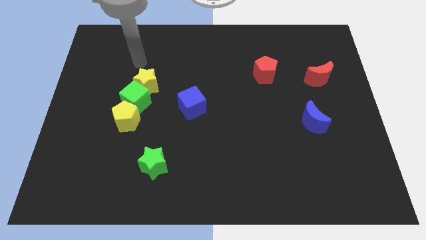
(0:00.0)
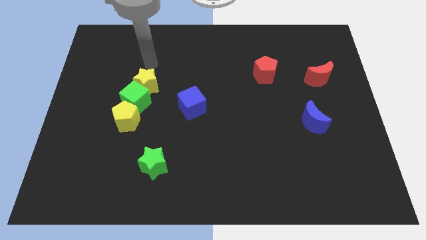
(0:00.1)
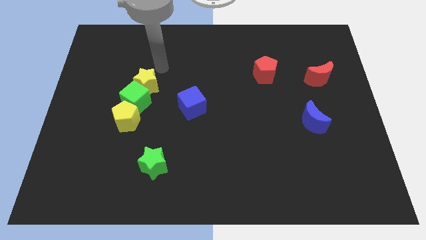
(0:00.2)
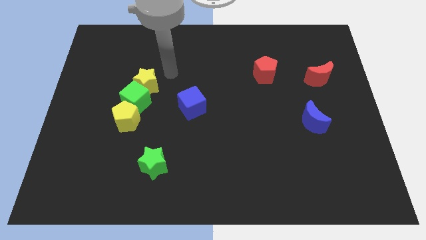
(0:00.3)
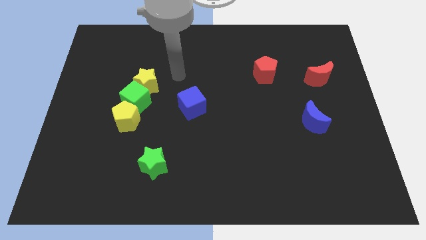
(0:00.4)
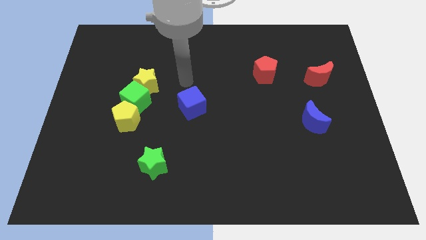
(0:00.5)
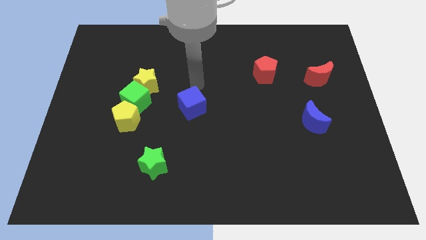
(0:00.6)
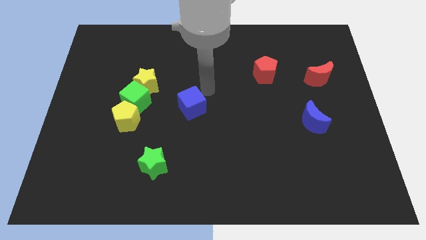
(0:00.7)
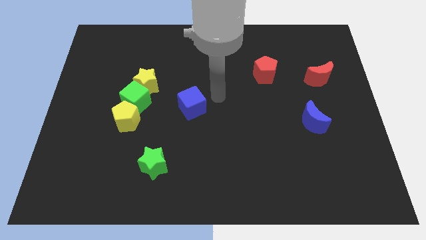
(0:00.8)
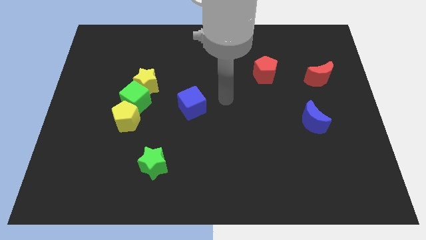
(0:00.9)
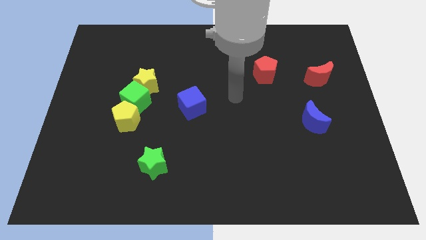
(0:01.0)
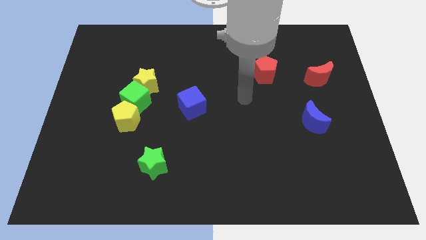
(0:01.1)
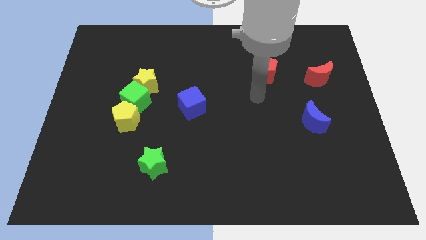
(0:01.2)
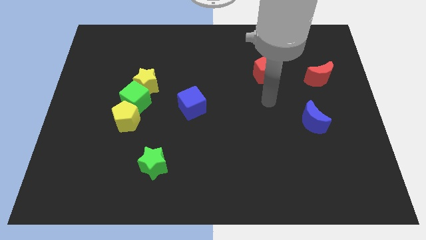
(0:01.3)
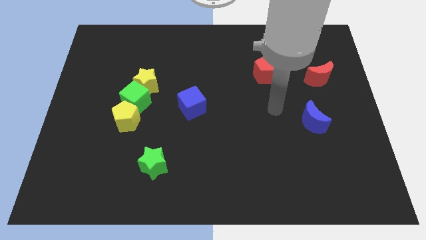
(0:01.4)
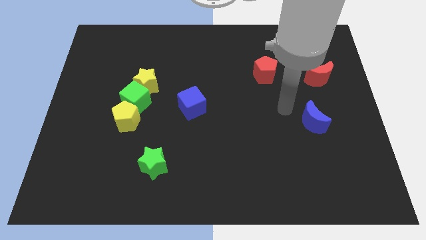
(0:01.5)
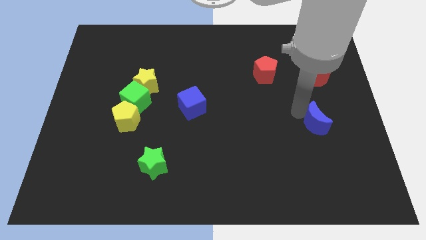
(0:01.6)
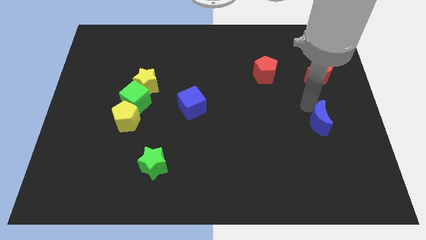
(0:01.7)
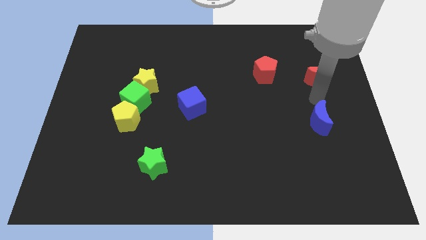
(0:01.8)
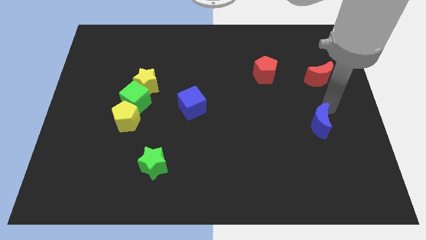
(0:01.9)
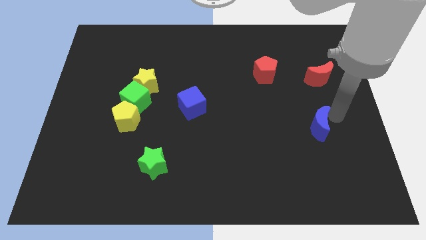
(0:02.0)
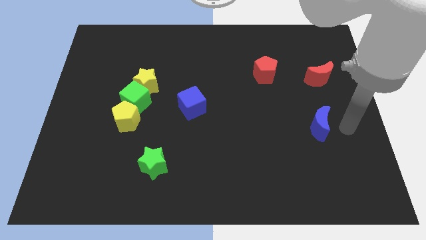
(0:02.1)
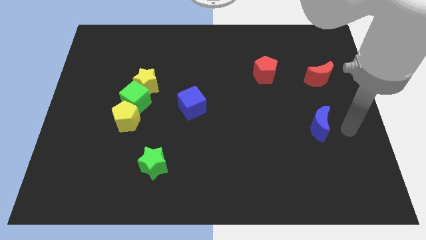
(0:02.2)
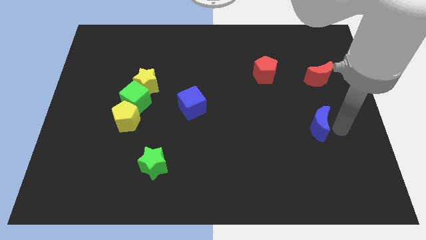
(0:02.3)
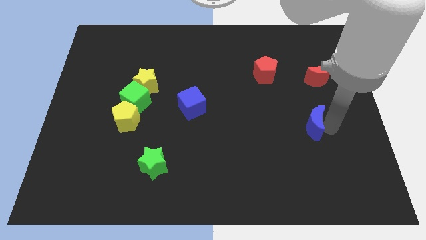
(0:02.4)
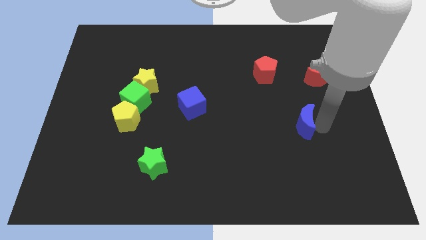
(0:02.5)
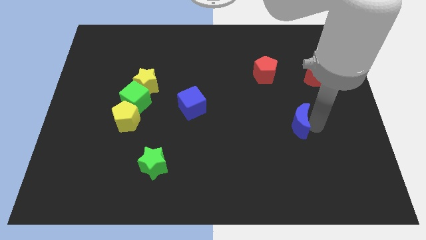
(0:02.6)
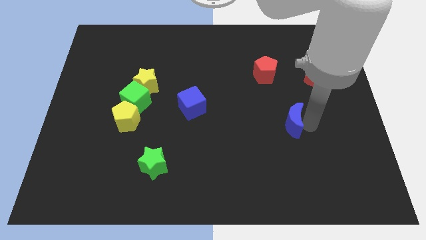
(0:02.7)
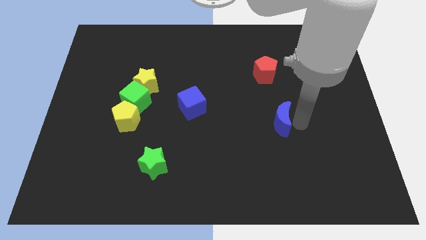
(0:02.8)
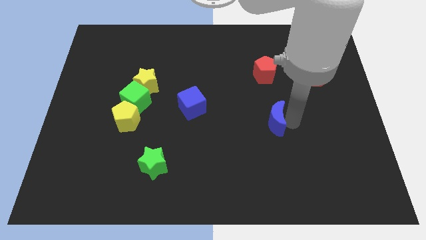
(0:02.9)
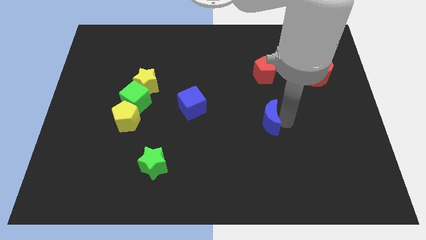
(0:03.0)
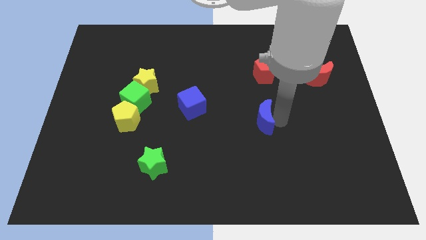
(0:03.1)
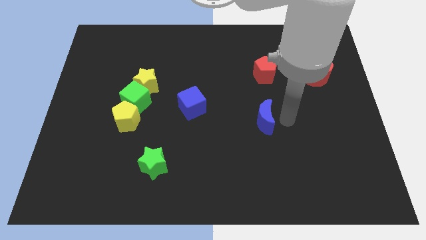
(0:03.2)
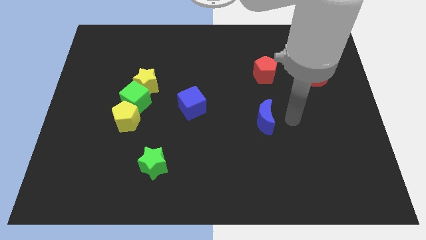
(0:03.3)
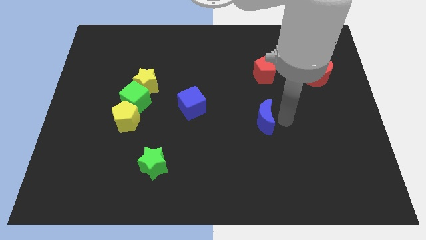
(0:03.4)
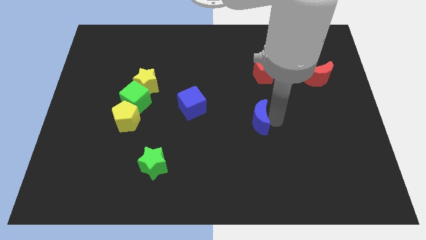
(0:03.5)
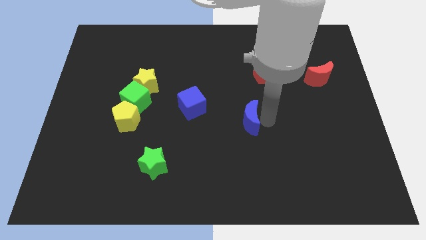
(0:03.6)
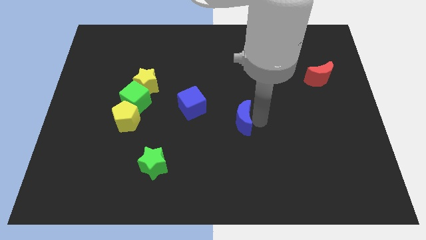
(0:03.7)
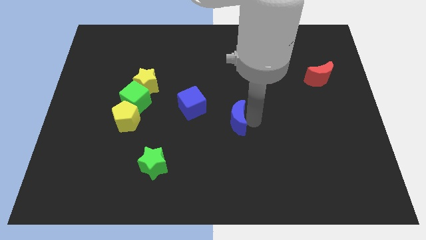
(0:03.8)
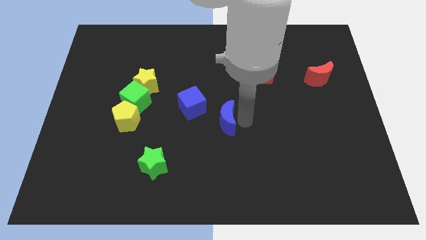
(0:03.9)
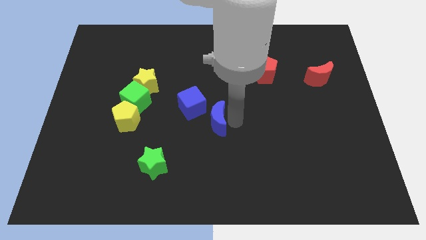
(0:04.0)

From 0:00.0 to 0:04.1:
slide the blue moon to the left

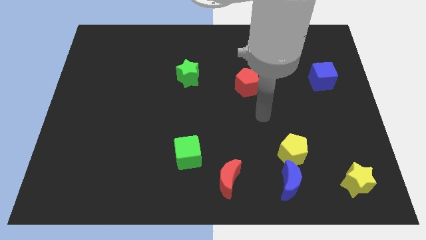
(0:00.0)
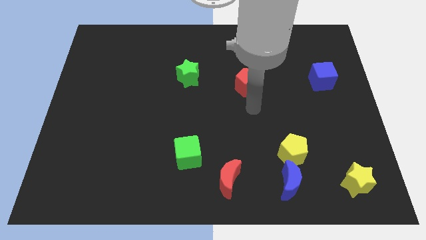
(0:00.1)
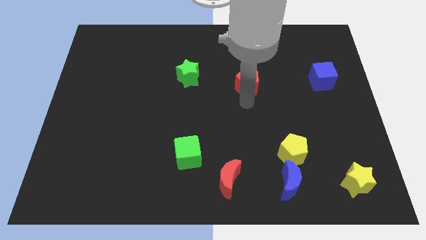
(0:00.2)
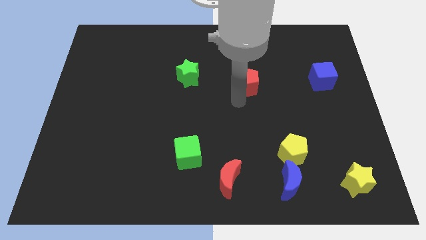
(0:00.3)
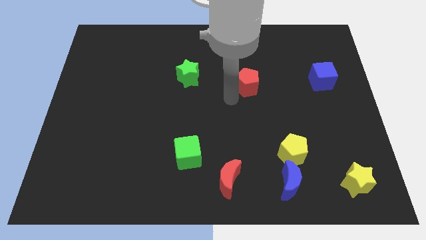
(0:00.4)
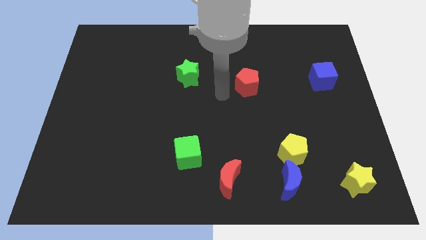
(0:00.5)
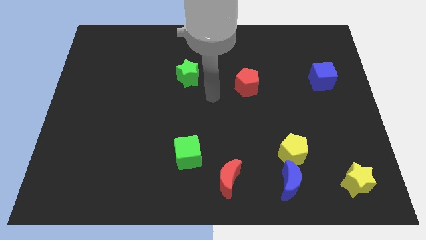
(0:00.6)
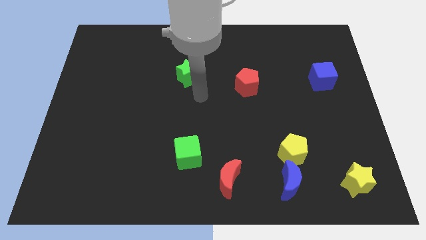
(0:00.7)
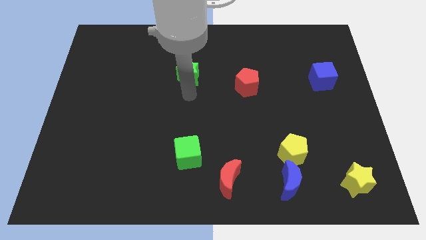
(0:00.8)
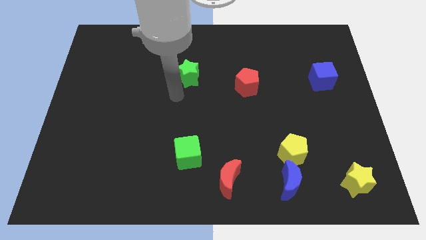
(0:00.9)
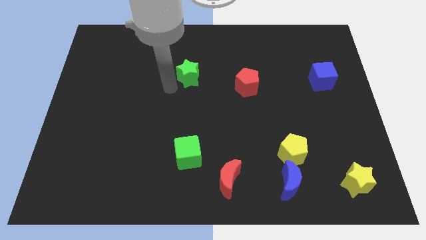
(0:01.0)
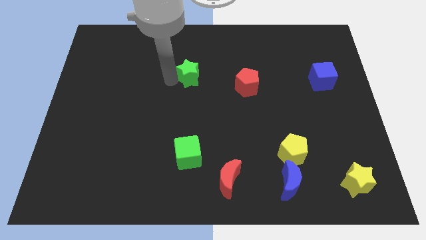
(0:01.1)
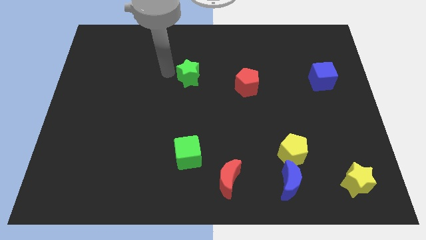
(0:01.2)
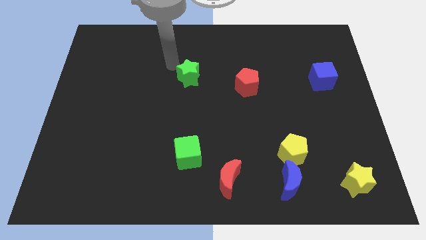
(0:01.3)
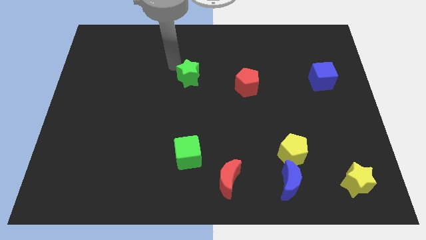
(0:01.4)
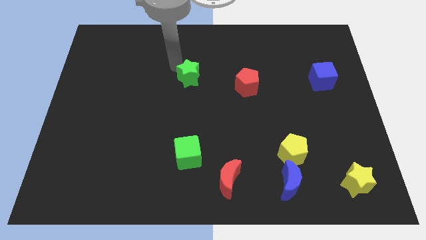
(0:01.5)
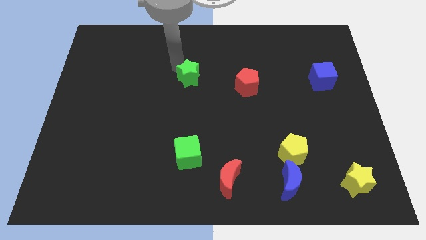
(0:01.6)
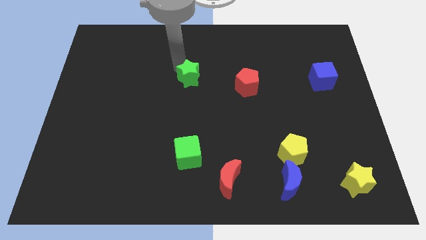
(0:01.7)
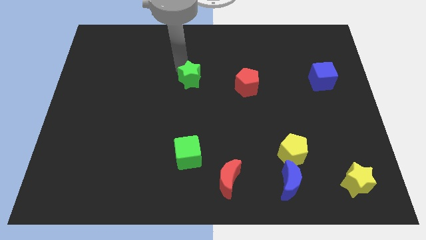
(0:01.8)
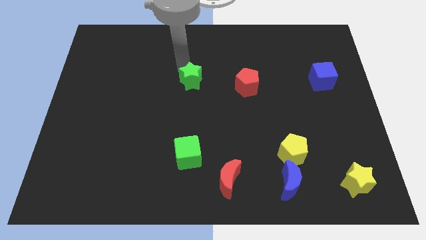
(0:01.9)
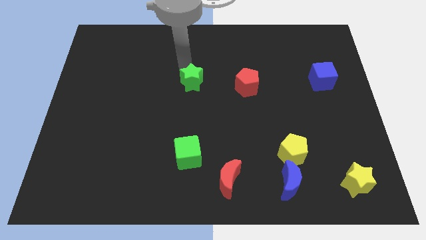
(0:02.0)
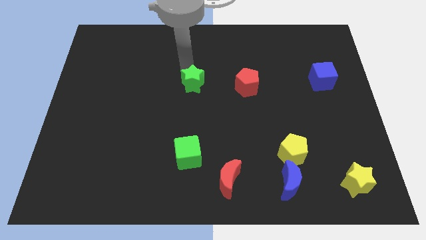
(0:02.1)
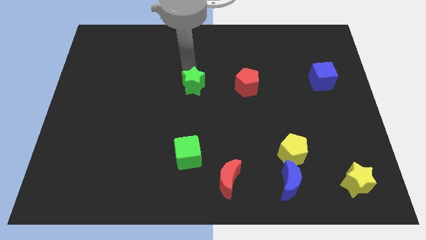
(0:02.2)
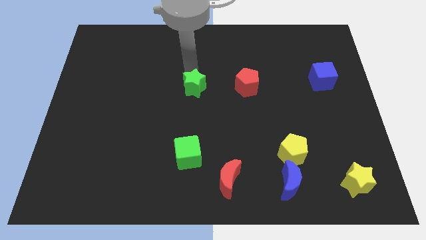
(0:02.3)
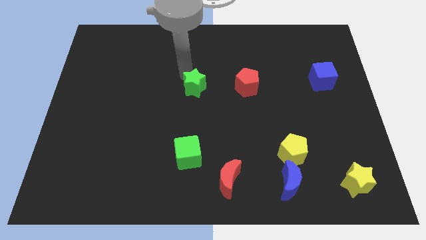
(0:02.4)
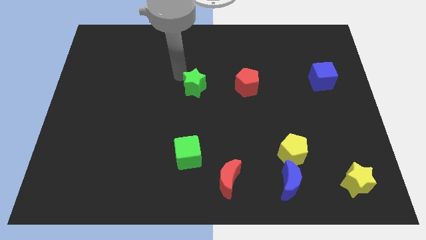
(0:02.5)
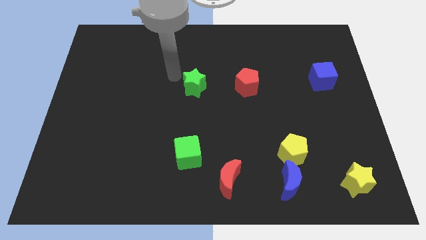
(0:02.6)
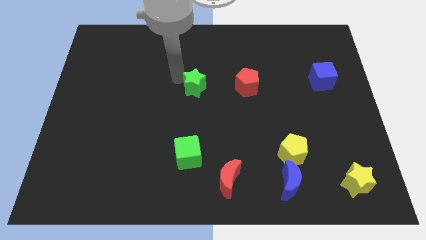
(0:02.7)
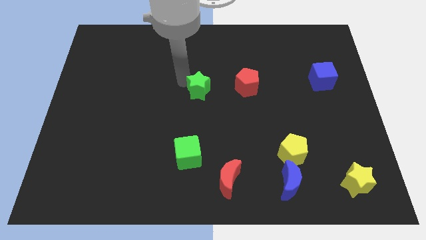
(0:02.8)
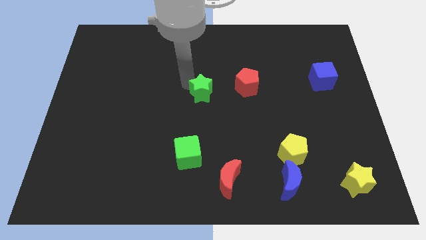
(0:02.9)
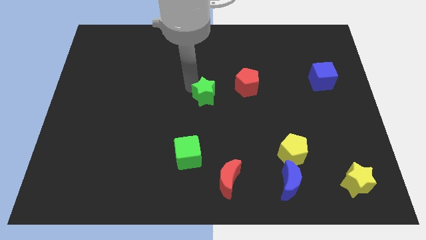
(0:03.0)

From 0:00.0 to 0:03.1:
slide the green star a bit diagonally down and to the right

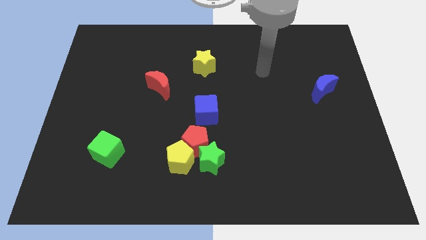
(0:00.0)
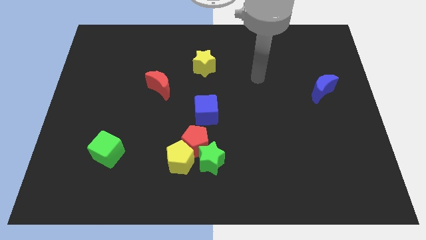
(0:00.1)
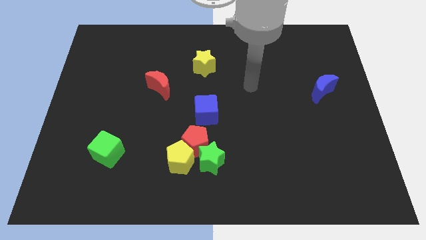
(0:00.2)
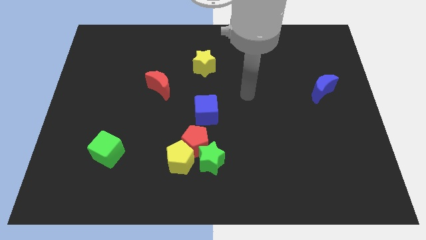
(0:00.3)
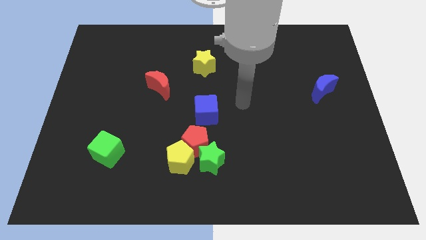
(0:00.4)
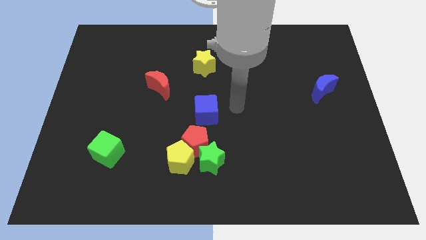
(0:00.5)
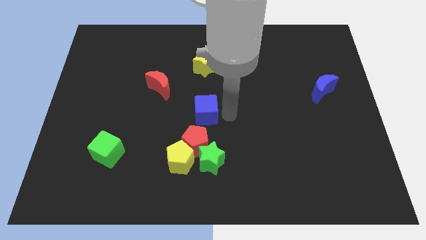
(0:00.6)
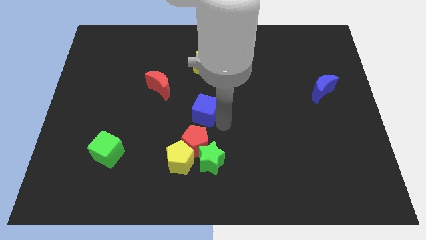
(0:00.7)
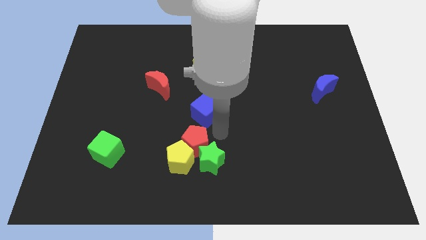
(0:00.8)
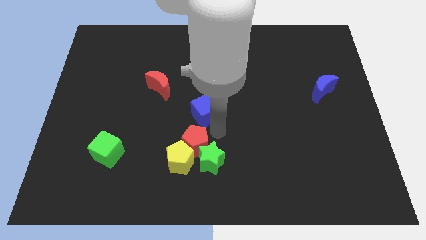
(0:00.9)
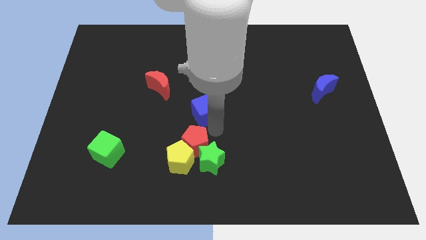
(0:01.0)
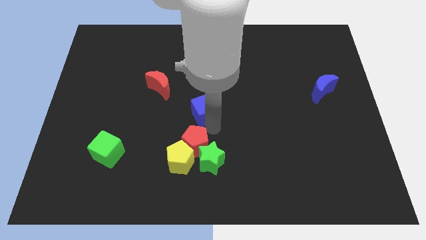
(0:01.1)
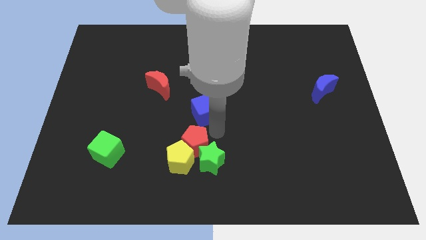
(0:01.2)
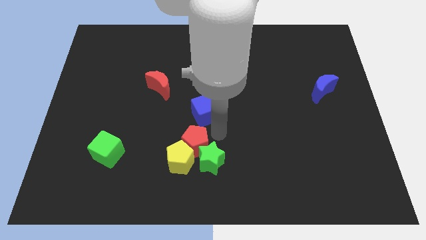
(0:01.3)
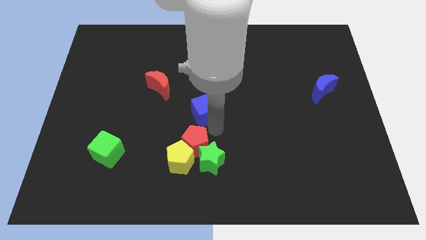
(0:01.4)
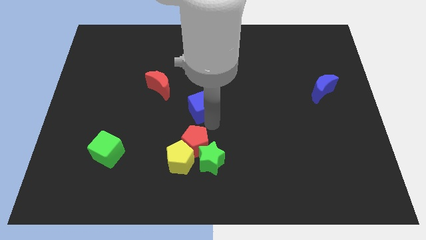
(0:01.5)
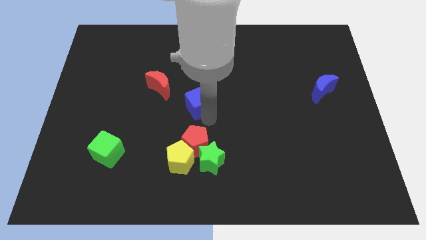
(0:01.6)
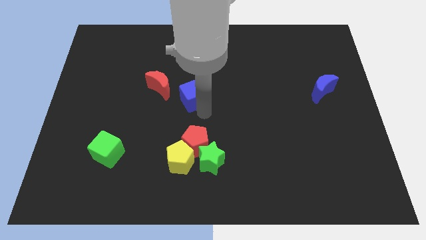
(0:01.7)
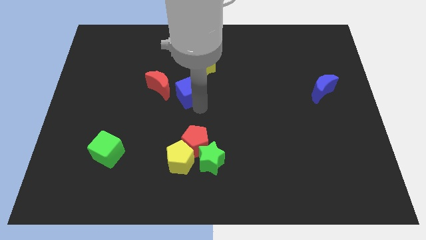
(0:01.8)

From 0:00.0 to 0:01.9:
push the blue cube up and left diagonally a little
